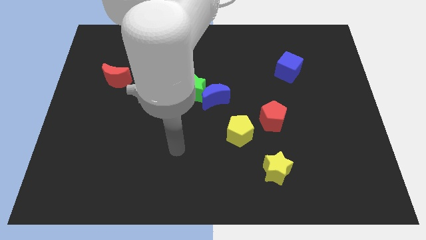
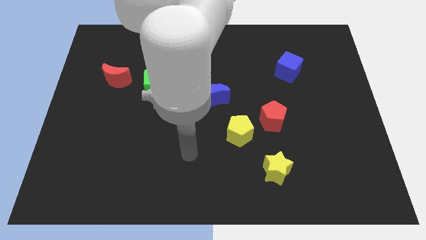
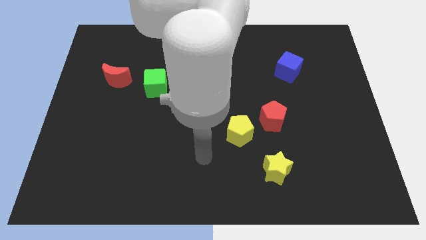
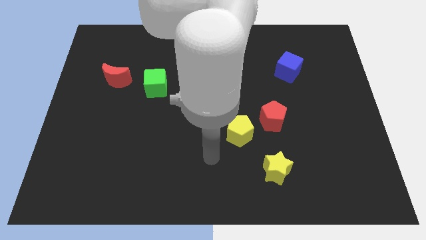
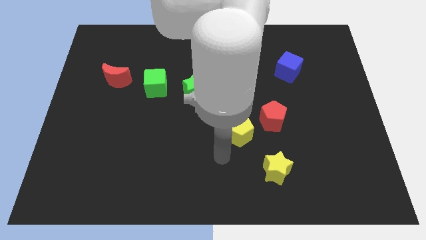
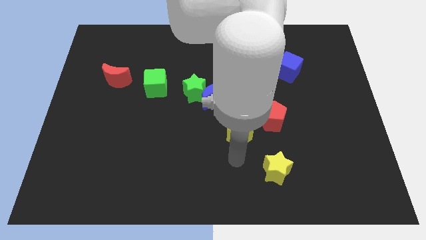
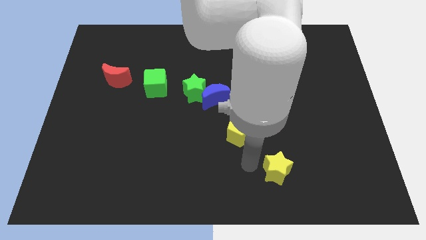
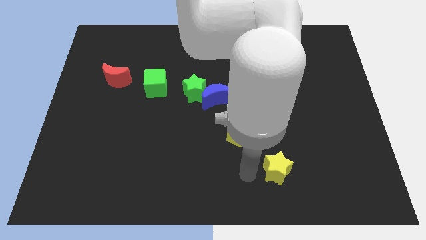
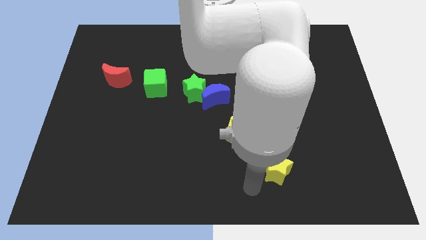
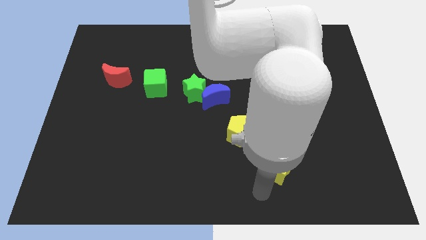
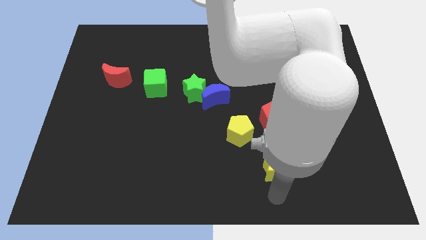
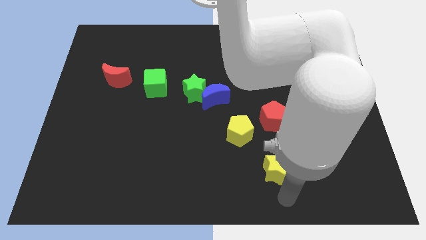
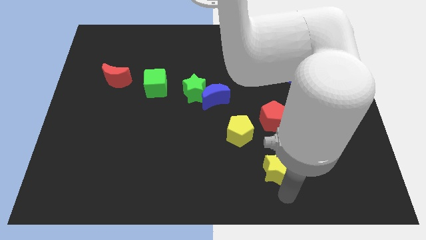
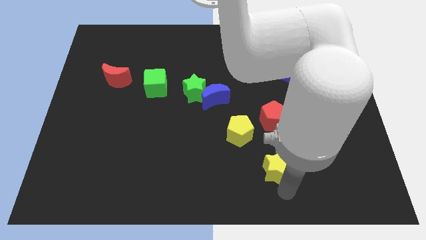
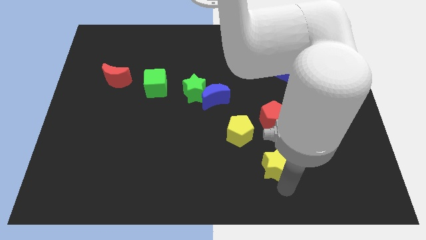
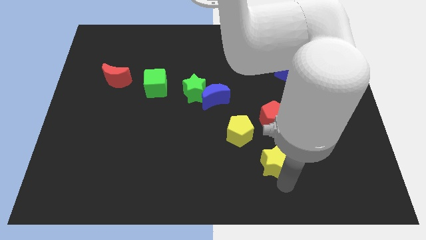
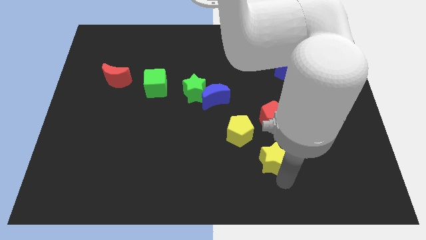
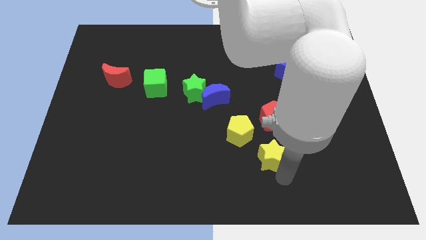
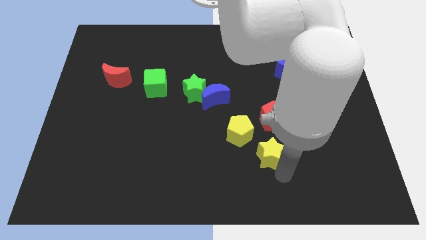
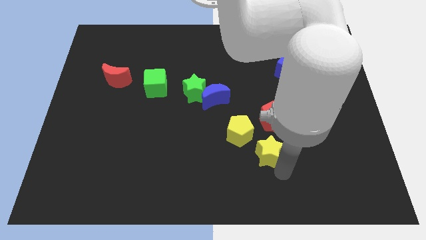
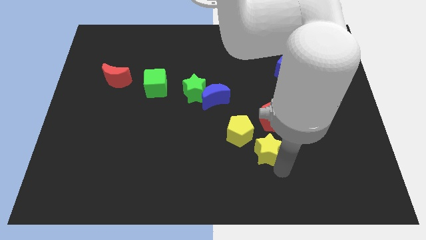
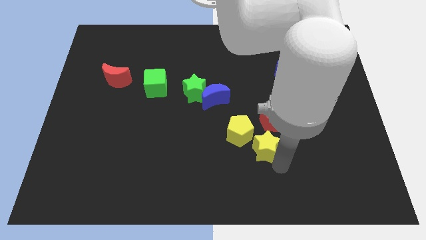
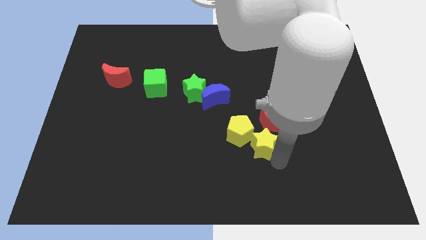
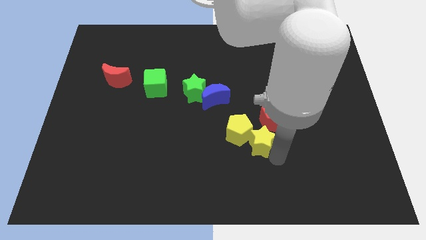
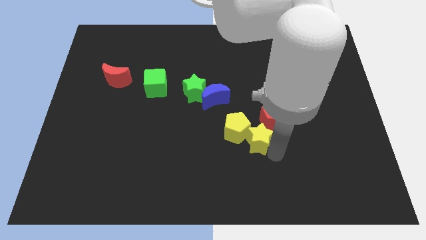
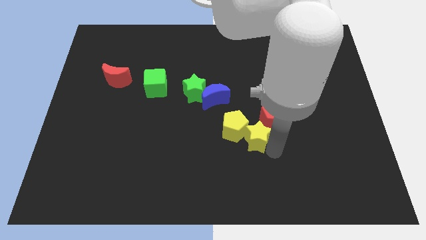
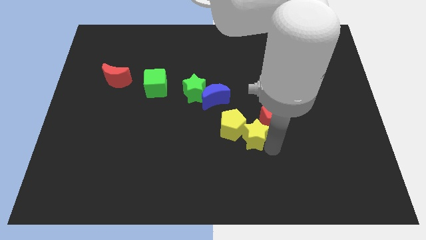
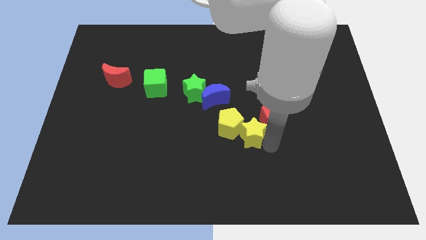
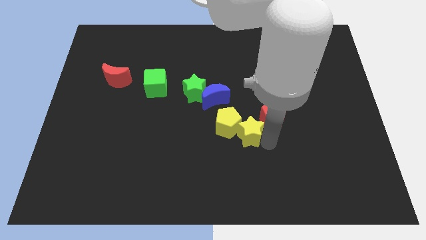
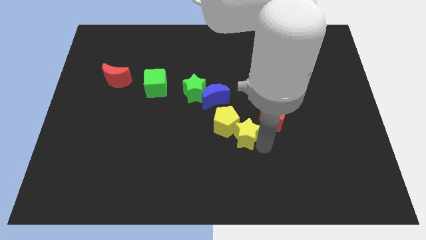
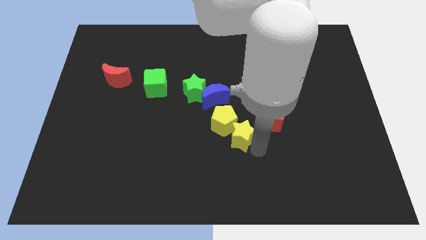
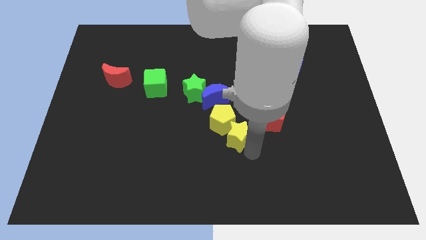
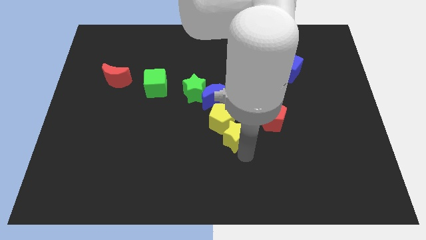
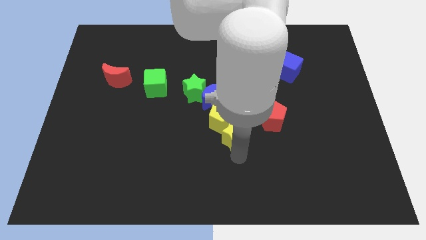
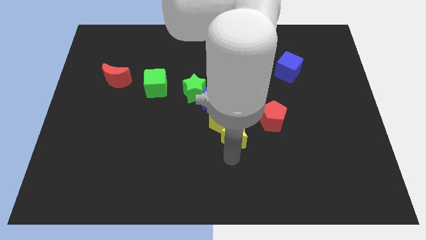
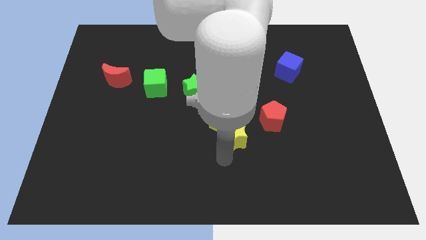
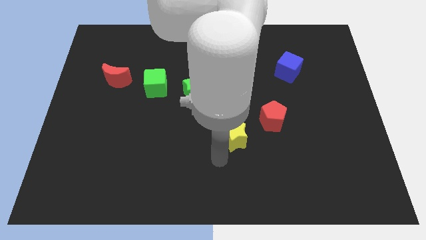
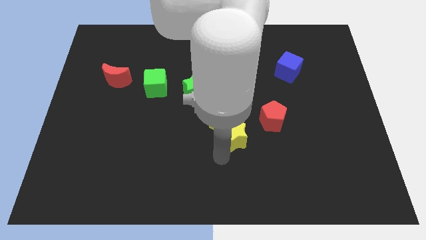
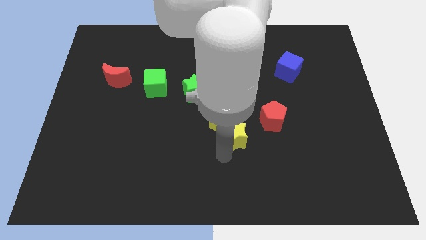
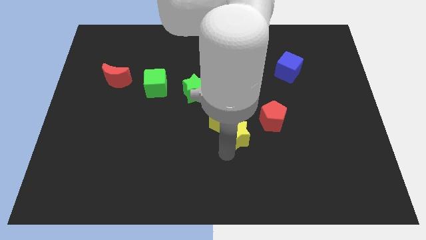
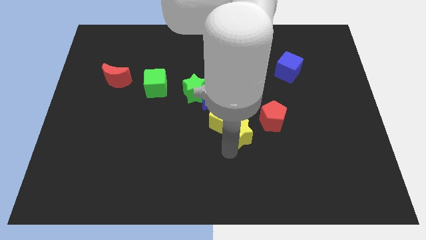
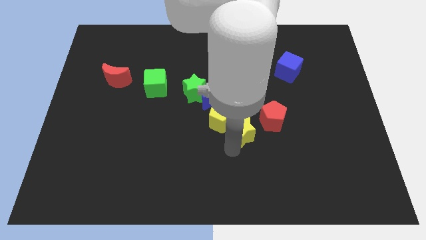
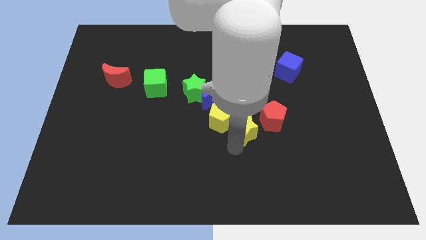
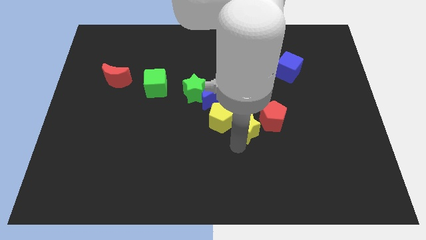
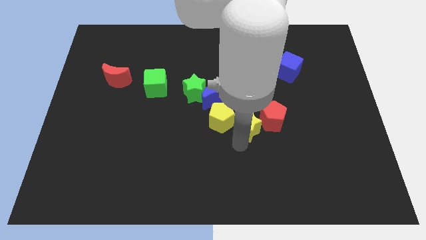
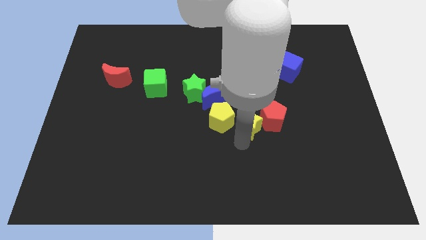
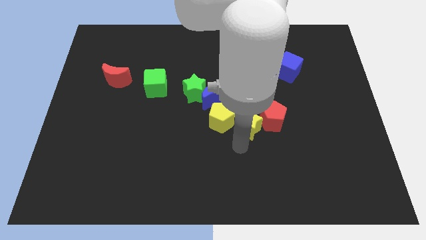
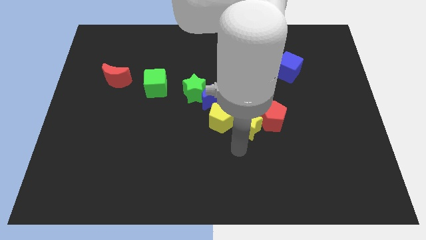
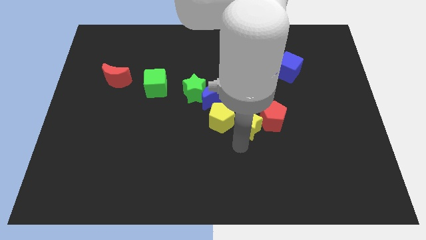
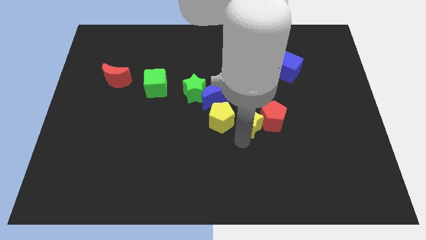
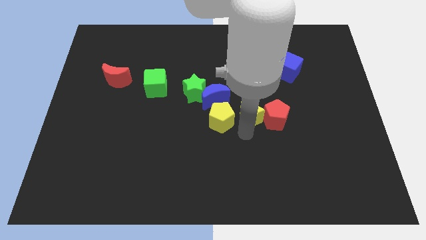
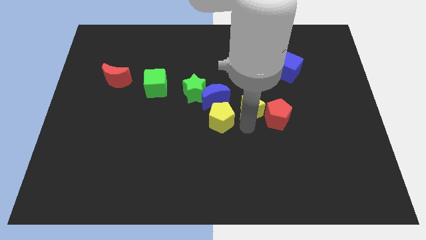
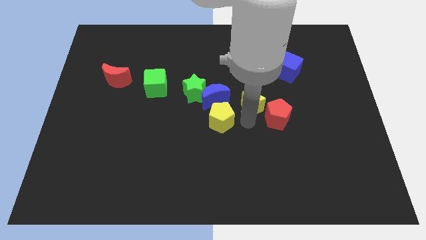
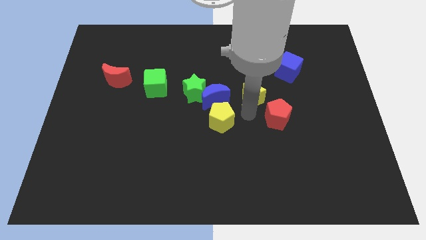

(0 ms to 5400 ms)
move the yellow star diagonally down and to the left of the blue cube
